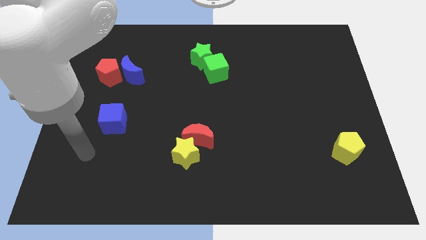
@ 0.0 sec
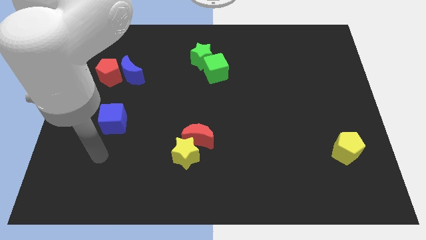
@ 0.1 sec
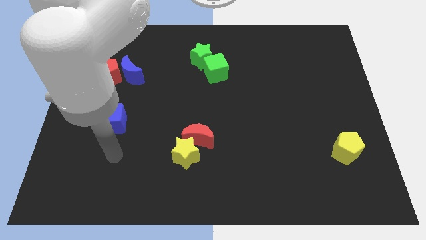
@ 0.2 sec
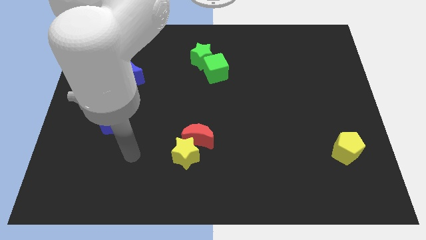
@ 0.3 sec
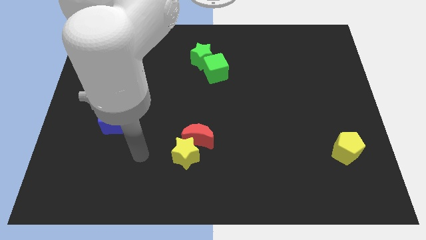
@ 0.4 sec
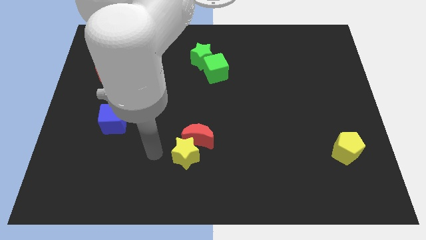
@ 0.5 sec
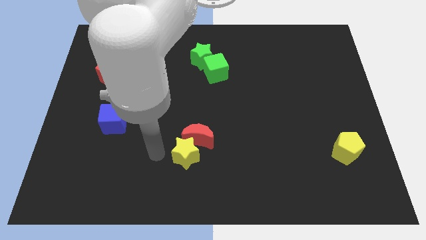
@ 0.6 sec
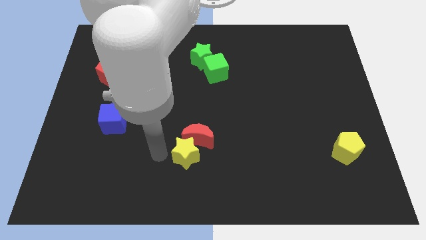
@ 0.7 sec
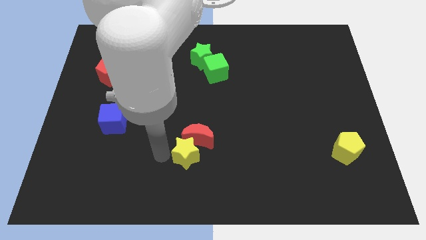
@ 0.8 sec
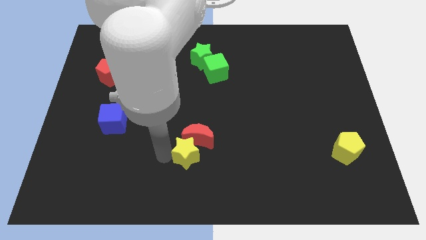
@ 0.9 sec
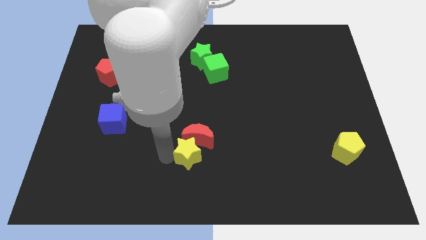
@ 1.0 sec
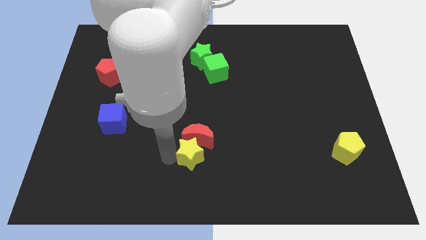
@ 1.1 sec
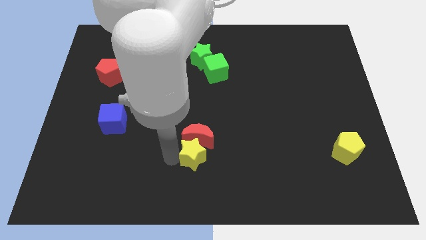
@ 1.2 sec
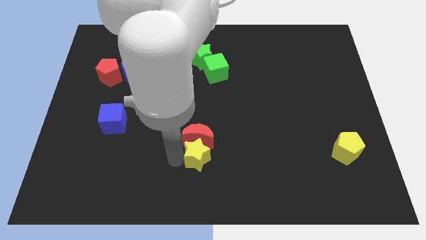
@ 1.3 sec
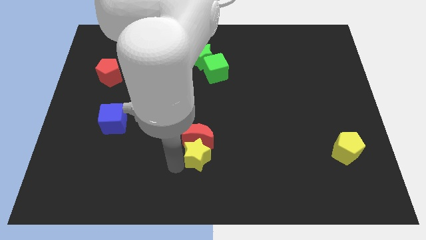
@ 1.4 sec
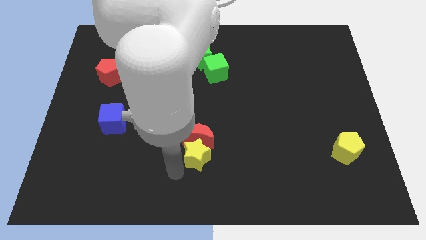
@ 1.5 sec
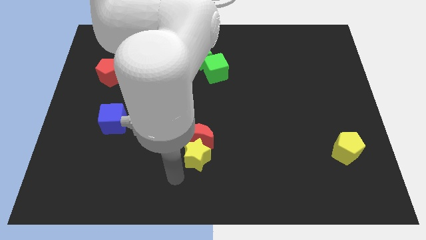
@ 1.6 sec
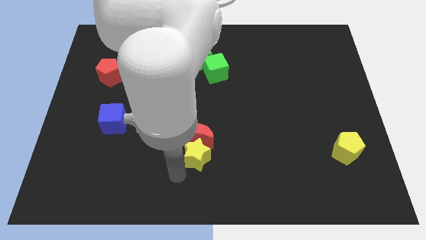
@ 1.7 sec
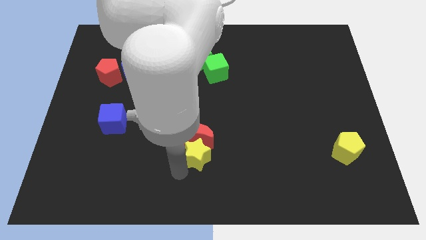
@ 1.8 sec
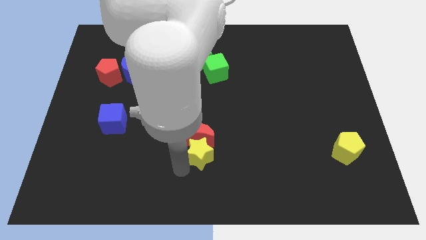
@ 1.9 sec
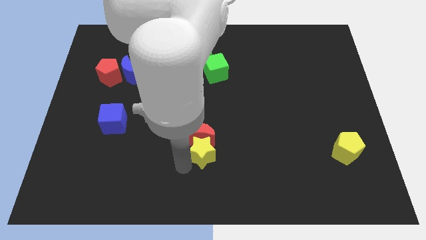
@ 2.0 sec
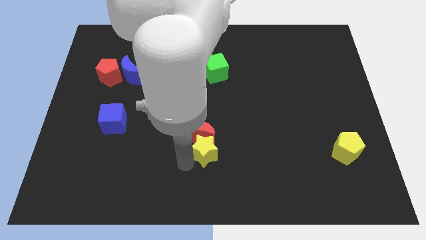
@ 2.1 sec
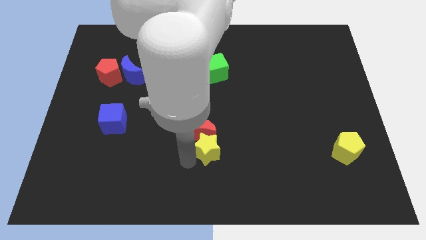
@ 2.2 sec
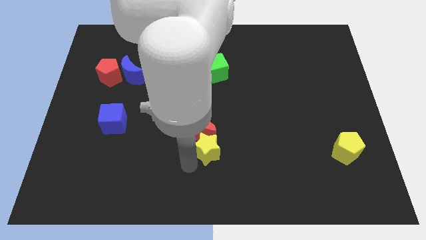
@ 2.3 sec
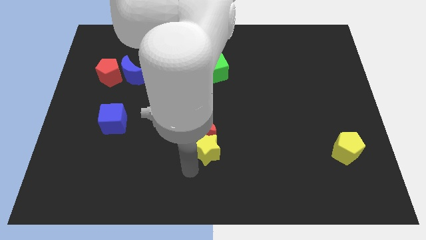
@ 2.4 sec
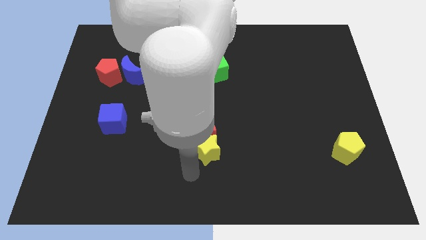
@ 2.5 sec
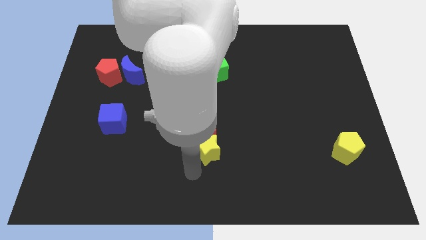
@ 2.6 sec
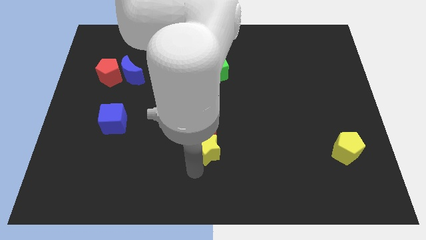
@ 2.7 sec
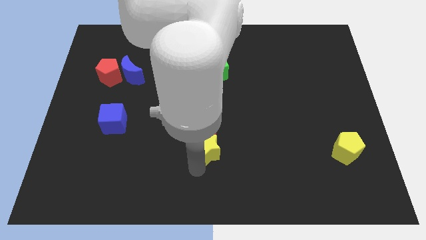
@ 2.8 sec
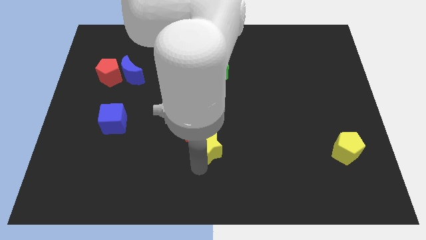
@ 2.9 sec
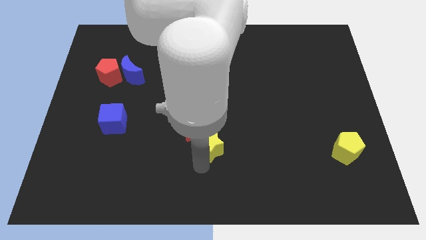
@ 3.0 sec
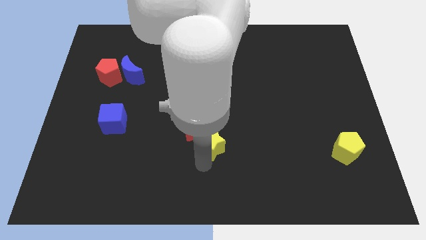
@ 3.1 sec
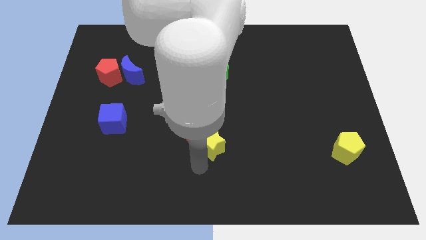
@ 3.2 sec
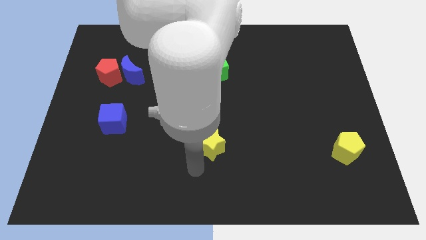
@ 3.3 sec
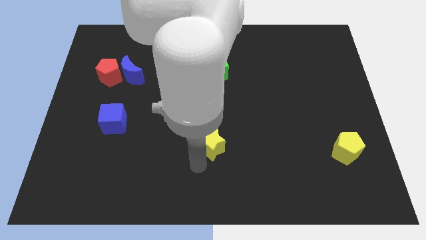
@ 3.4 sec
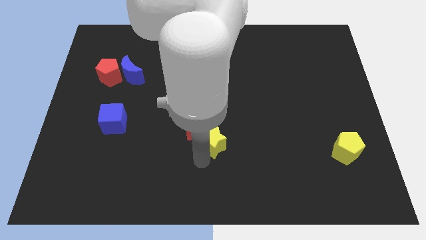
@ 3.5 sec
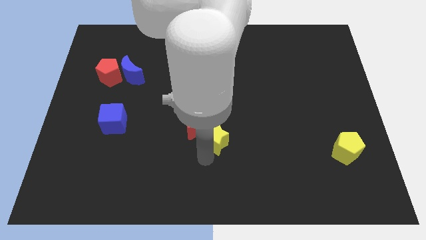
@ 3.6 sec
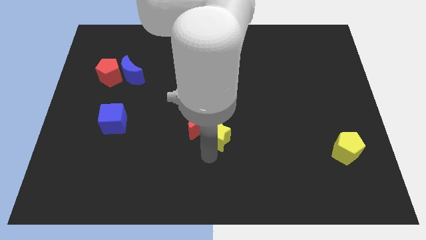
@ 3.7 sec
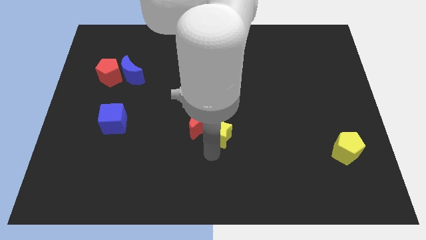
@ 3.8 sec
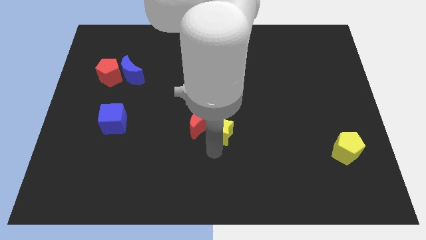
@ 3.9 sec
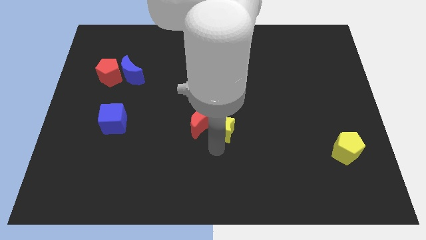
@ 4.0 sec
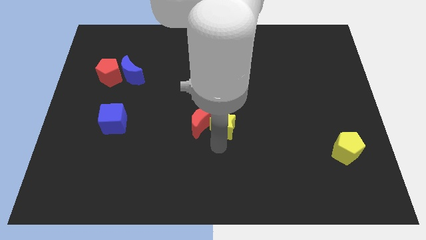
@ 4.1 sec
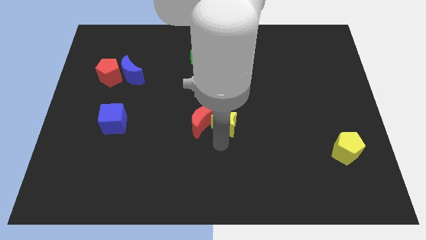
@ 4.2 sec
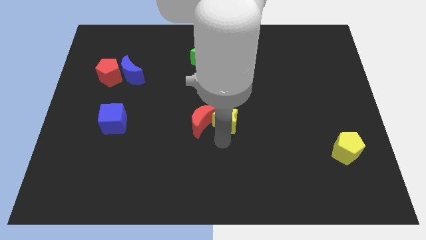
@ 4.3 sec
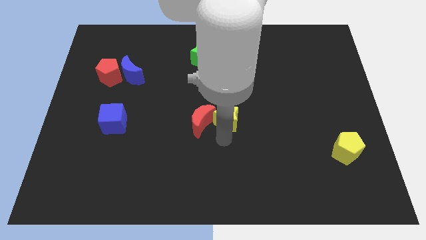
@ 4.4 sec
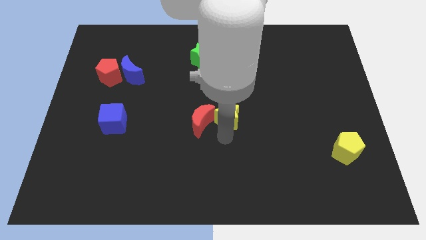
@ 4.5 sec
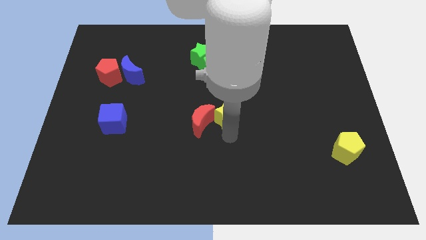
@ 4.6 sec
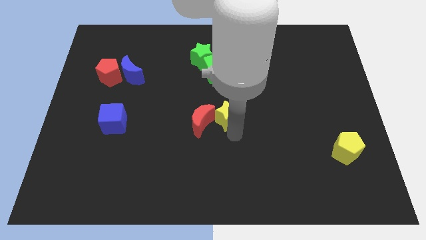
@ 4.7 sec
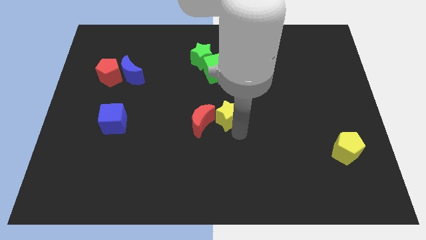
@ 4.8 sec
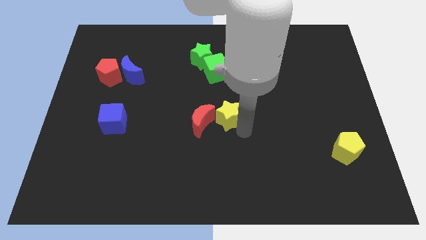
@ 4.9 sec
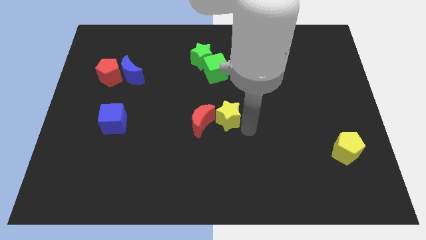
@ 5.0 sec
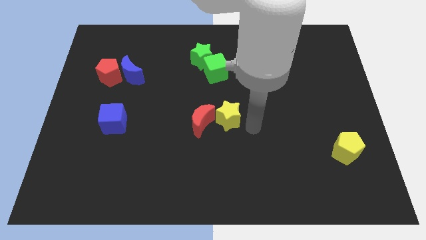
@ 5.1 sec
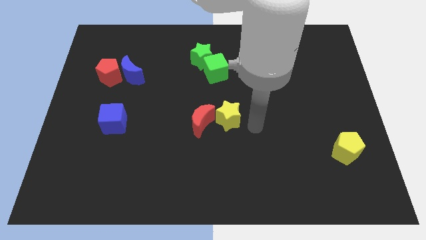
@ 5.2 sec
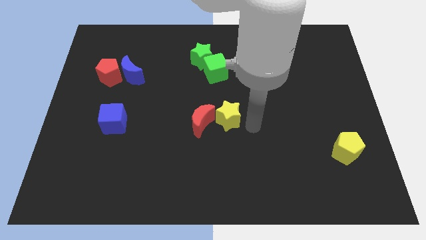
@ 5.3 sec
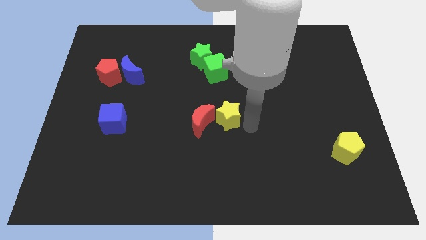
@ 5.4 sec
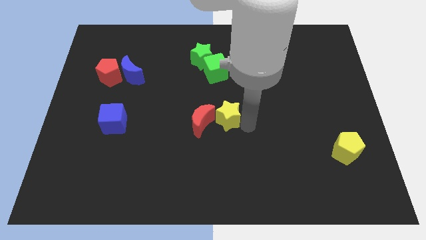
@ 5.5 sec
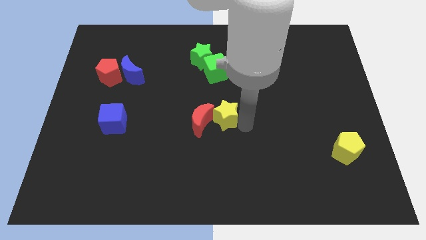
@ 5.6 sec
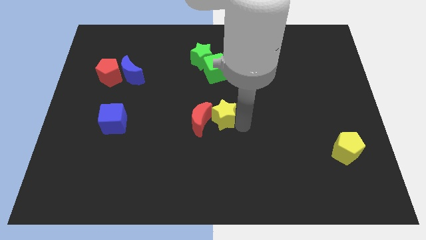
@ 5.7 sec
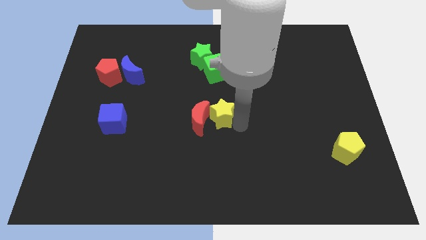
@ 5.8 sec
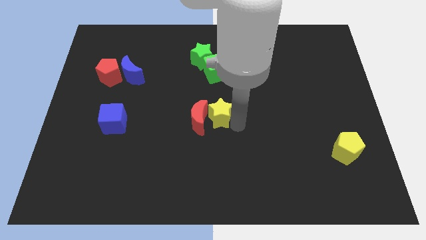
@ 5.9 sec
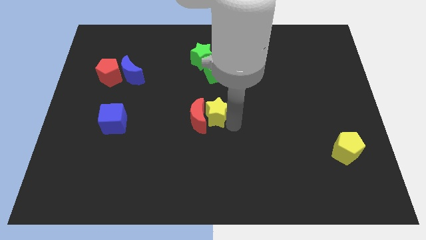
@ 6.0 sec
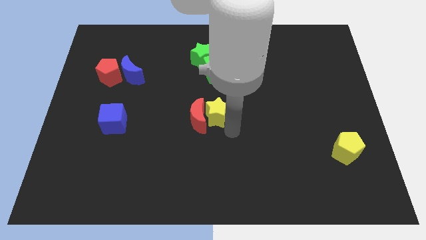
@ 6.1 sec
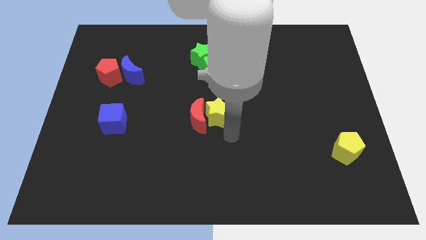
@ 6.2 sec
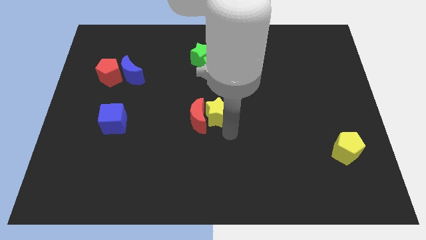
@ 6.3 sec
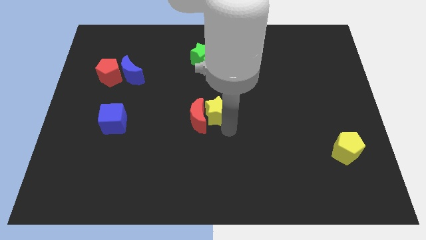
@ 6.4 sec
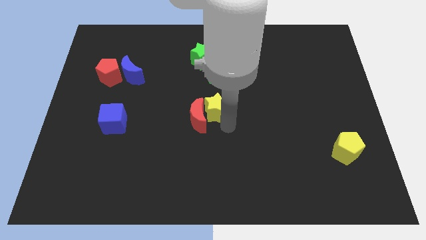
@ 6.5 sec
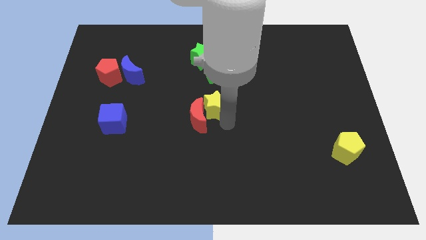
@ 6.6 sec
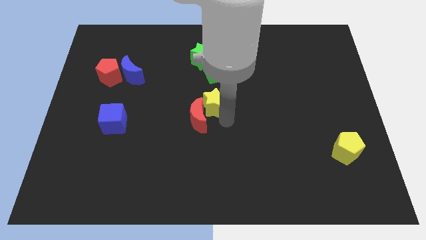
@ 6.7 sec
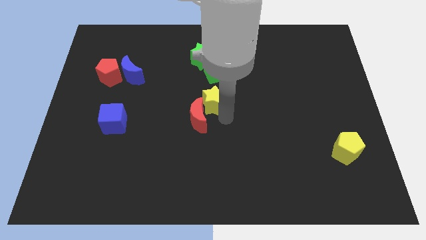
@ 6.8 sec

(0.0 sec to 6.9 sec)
put the yellow star to the bottom of the green star

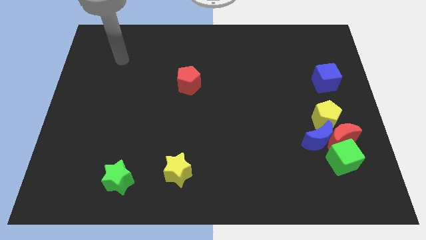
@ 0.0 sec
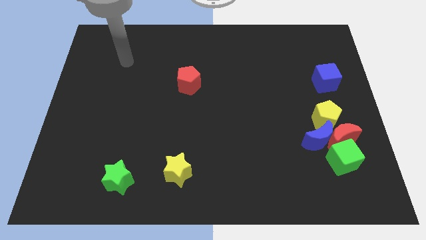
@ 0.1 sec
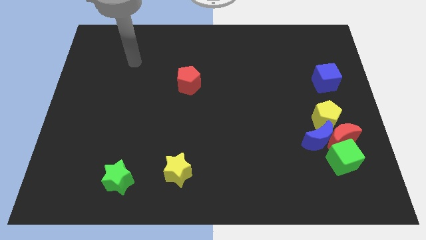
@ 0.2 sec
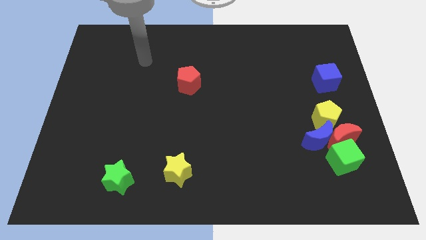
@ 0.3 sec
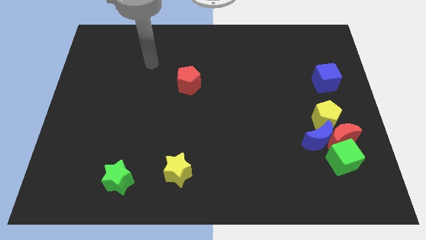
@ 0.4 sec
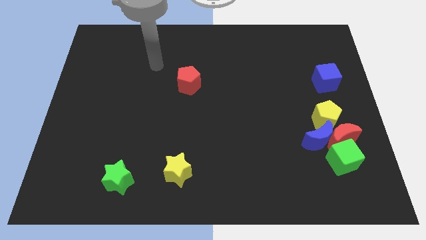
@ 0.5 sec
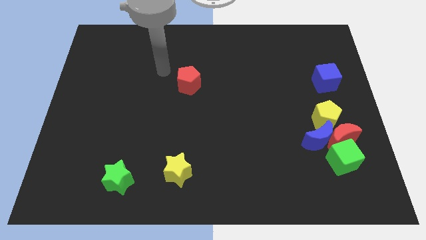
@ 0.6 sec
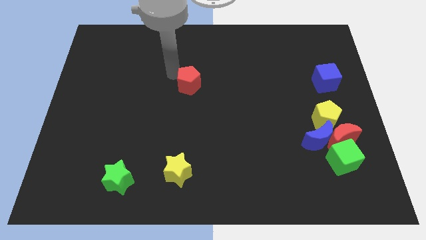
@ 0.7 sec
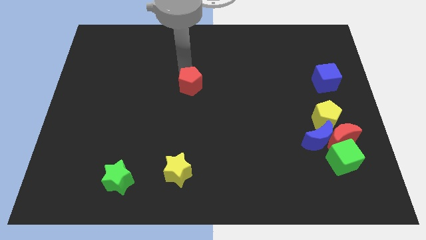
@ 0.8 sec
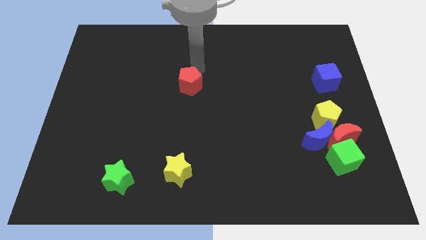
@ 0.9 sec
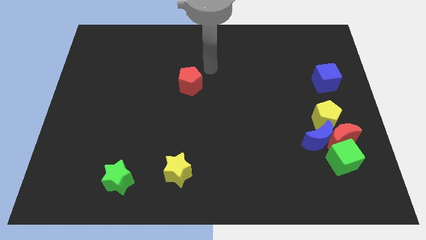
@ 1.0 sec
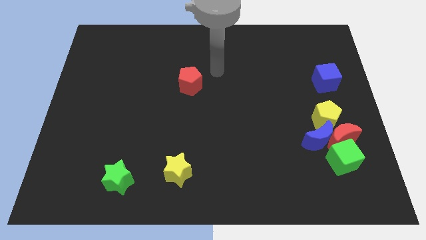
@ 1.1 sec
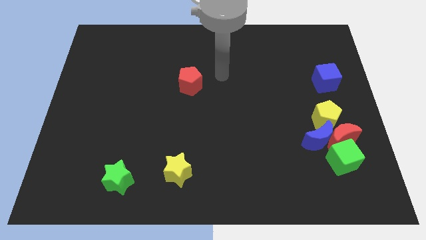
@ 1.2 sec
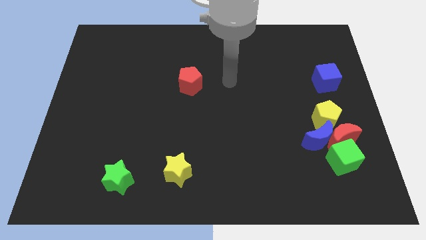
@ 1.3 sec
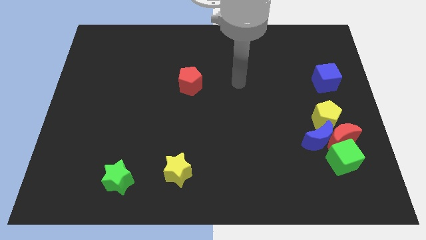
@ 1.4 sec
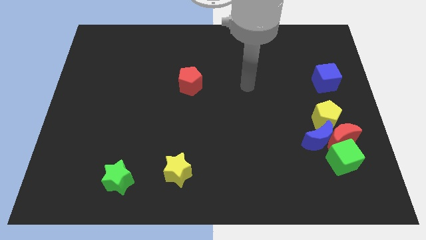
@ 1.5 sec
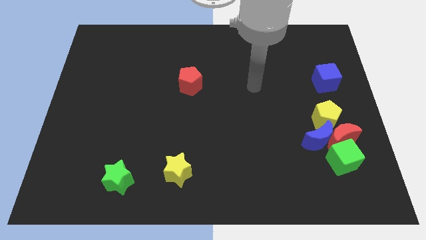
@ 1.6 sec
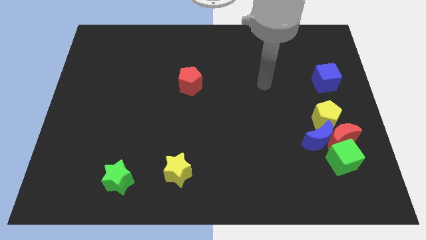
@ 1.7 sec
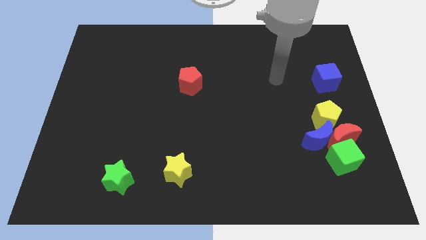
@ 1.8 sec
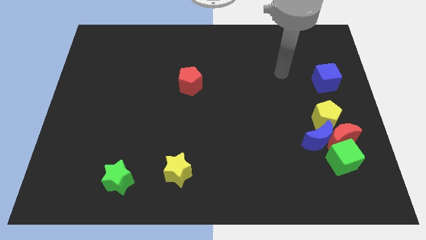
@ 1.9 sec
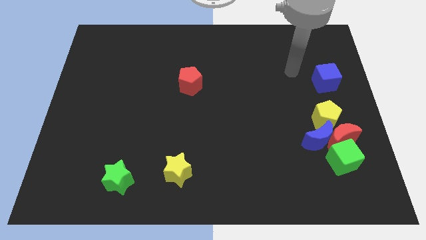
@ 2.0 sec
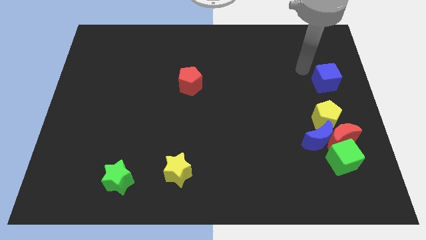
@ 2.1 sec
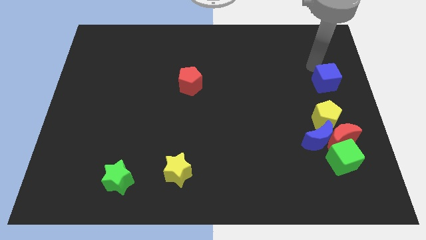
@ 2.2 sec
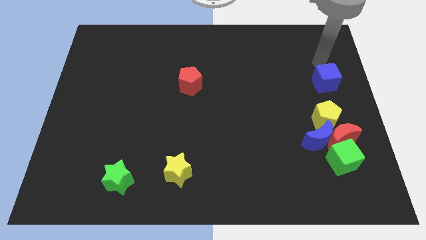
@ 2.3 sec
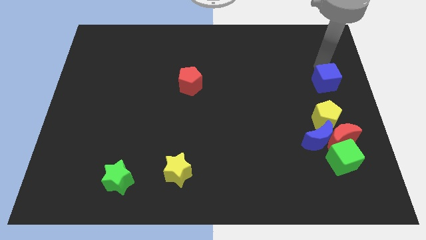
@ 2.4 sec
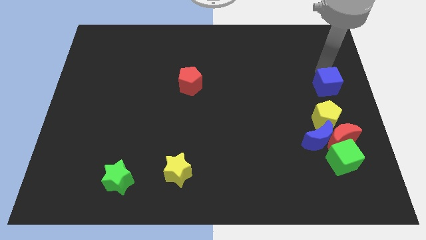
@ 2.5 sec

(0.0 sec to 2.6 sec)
push the blue cube to the top of the red moon
